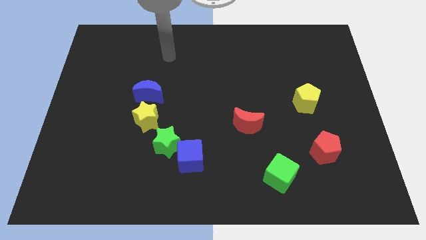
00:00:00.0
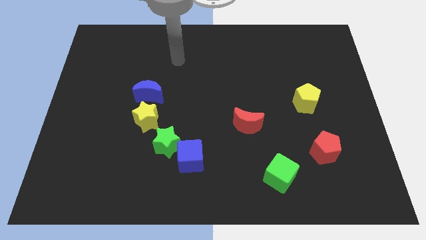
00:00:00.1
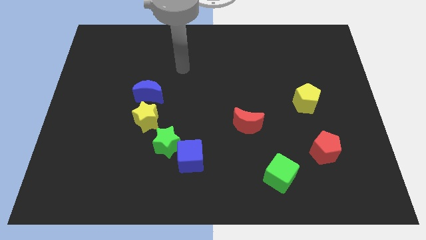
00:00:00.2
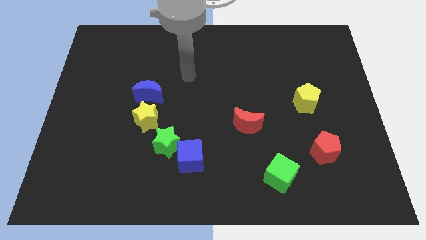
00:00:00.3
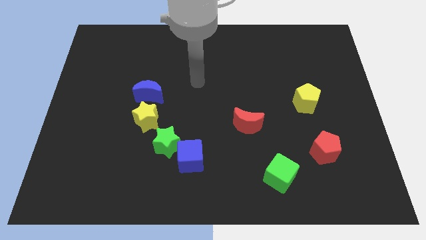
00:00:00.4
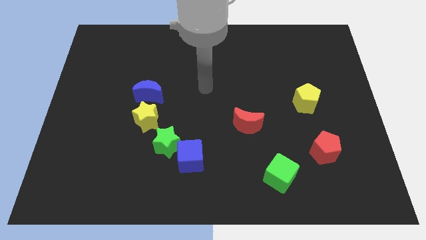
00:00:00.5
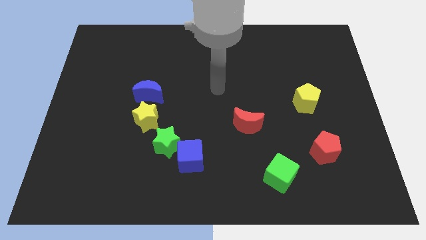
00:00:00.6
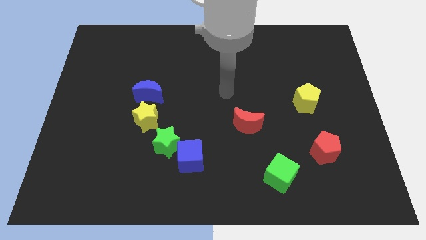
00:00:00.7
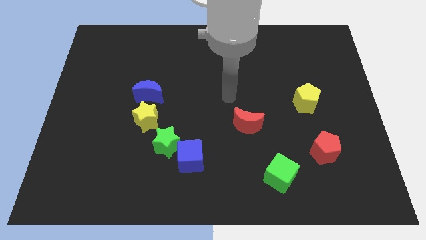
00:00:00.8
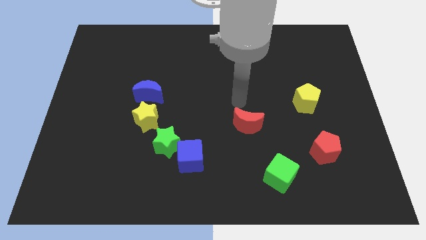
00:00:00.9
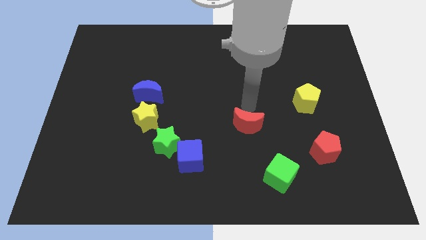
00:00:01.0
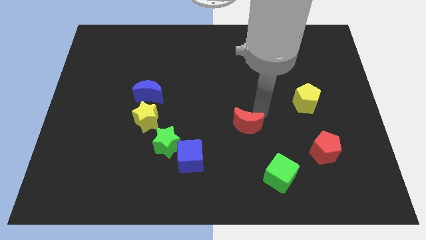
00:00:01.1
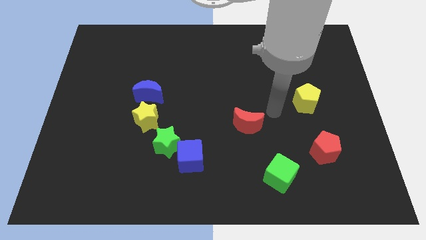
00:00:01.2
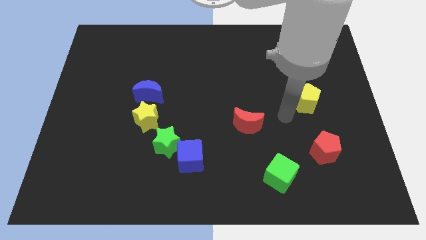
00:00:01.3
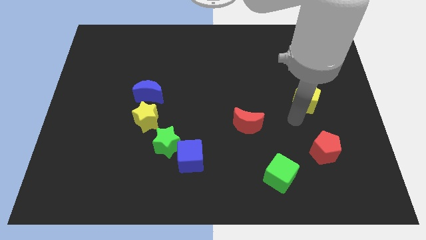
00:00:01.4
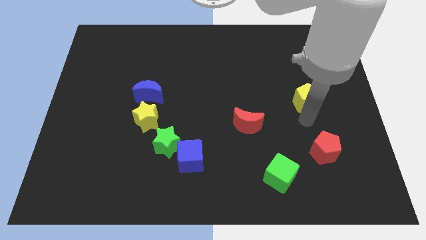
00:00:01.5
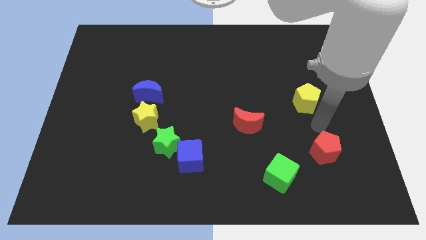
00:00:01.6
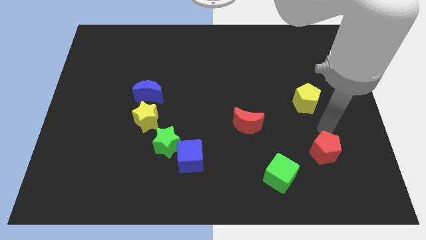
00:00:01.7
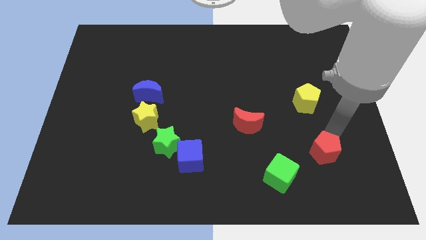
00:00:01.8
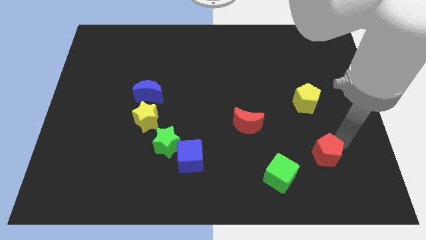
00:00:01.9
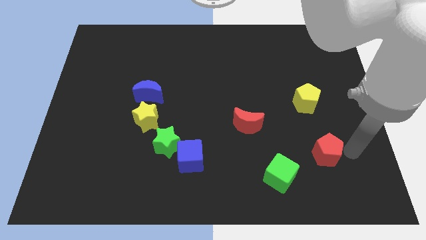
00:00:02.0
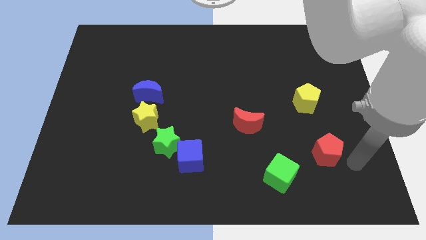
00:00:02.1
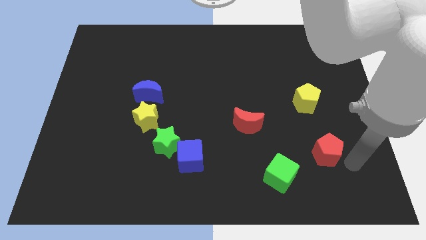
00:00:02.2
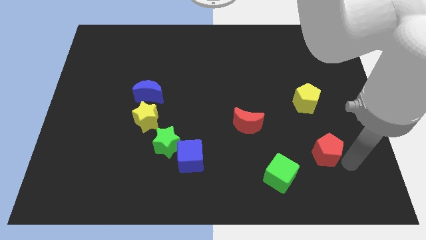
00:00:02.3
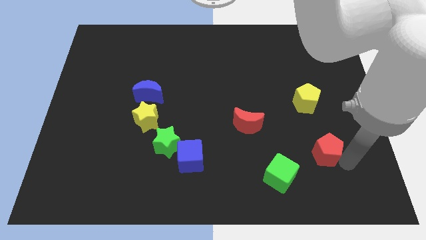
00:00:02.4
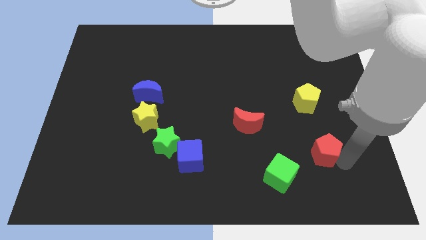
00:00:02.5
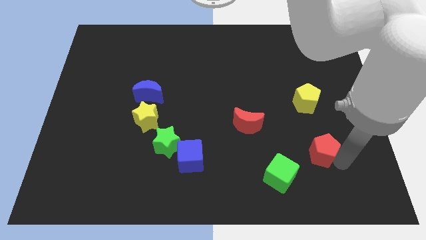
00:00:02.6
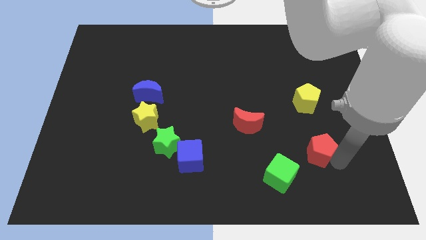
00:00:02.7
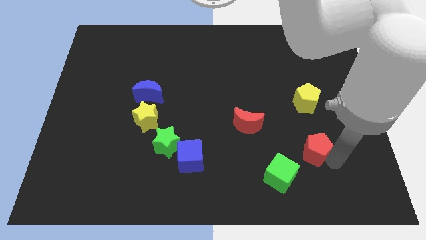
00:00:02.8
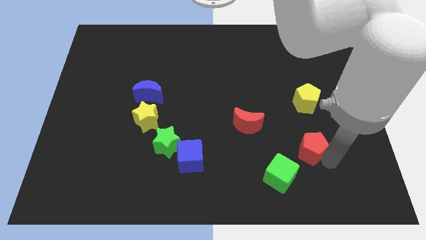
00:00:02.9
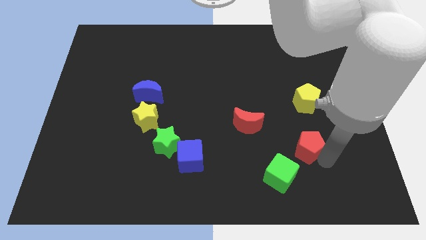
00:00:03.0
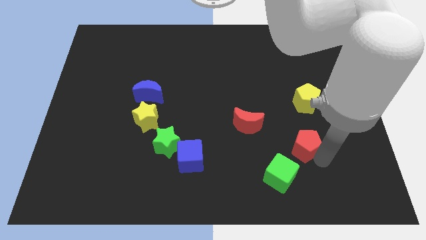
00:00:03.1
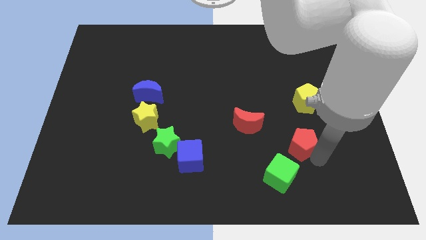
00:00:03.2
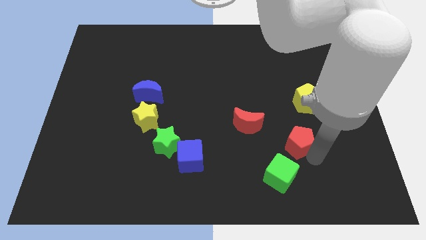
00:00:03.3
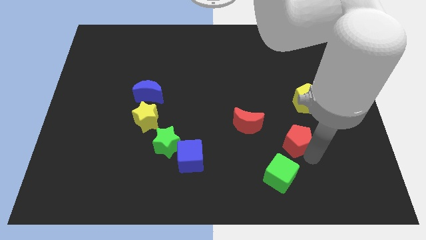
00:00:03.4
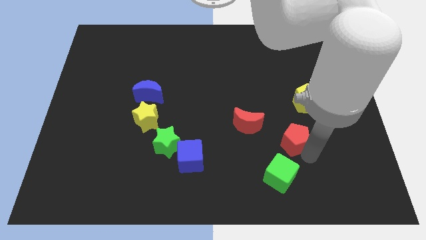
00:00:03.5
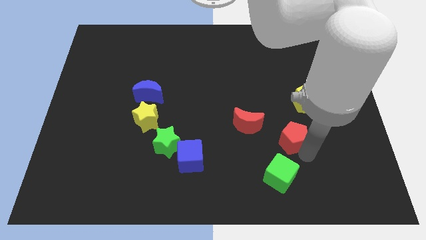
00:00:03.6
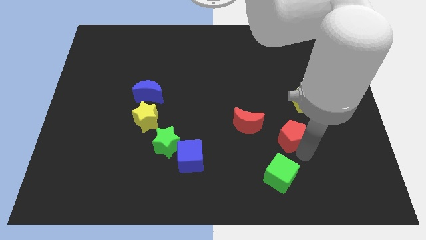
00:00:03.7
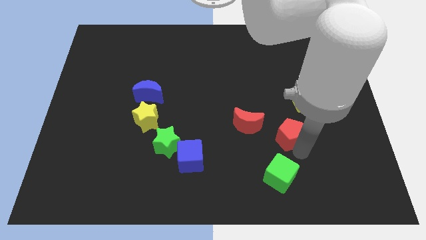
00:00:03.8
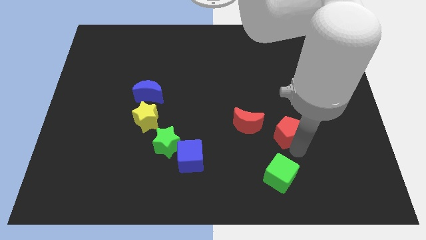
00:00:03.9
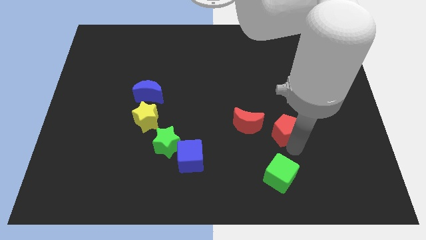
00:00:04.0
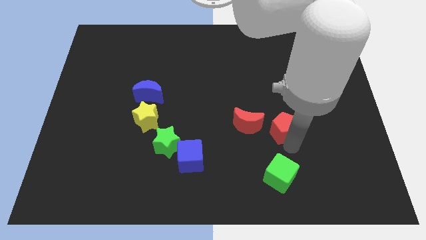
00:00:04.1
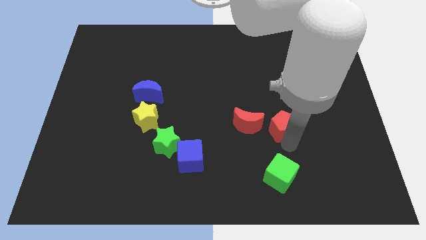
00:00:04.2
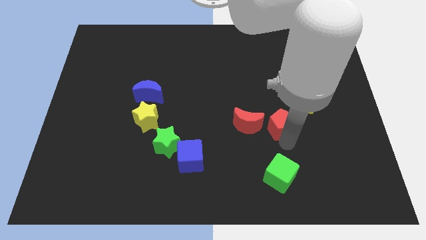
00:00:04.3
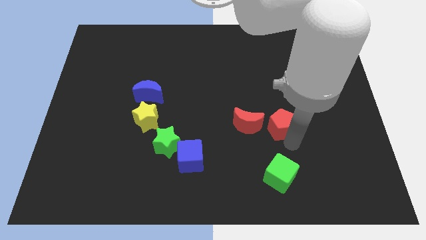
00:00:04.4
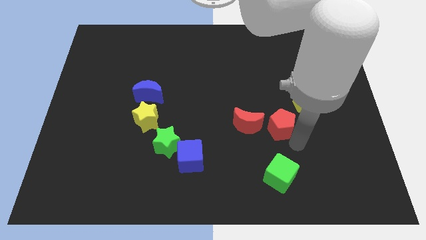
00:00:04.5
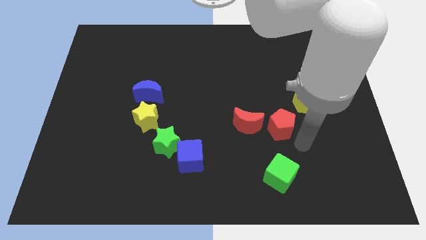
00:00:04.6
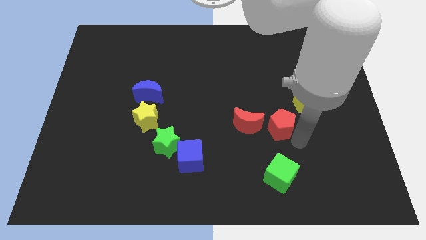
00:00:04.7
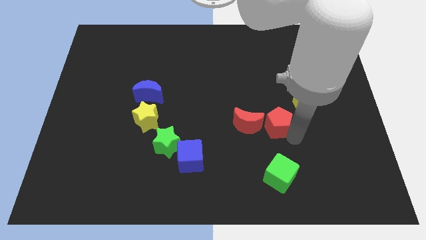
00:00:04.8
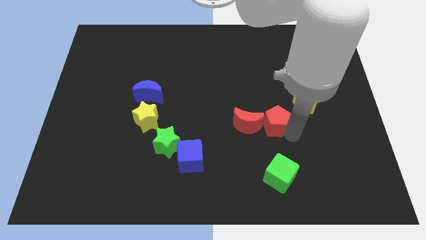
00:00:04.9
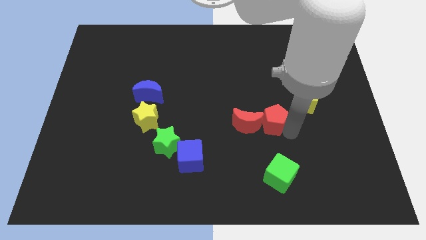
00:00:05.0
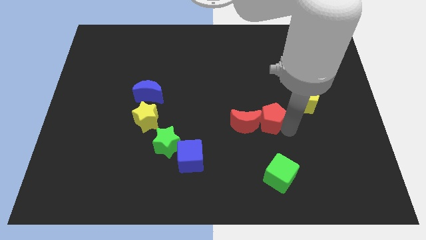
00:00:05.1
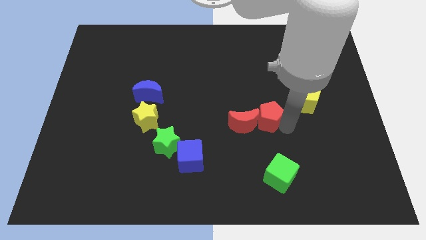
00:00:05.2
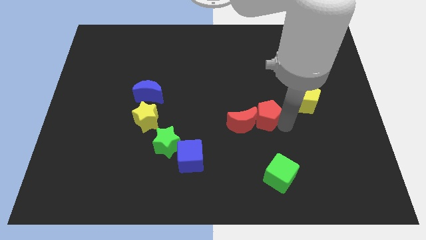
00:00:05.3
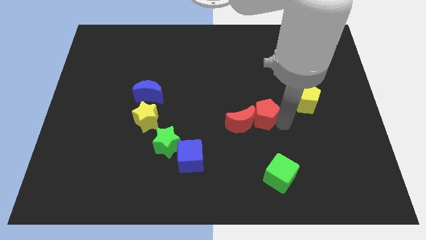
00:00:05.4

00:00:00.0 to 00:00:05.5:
push the red pentagon to the middle
